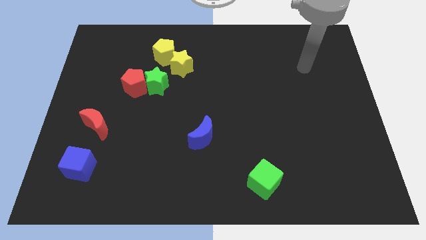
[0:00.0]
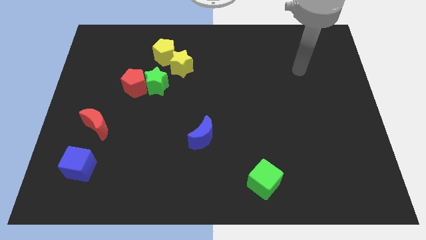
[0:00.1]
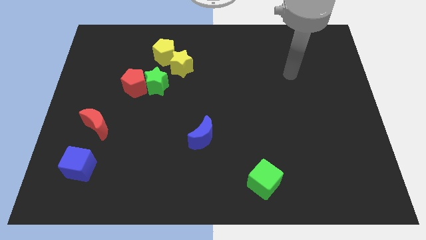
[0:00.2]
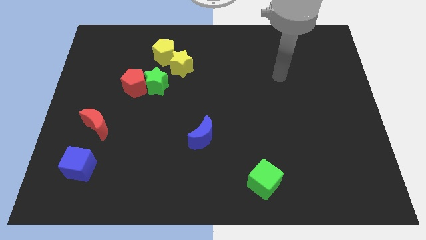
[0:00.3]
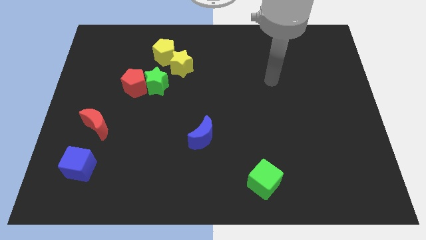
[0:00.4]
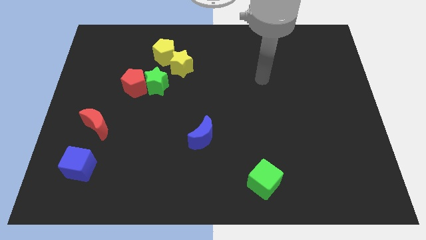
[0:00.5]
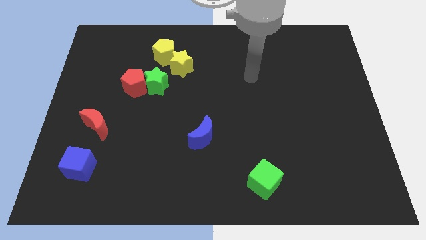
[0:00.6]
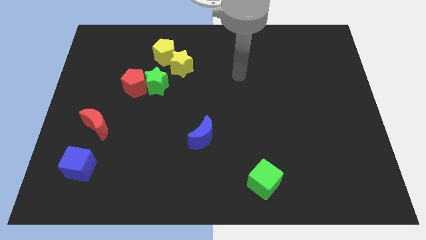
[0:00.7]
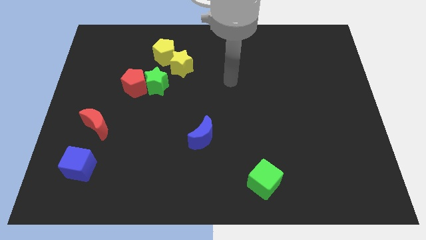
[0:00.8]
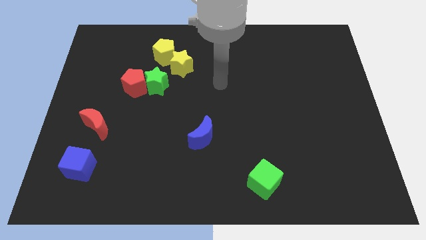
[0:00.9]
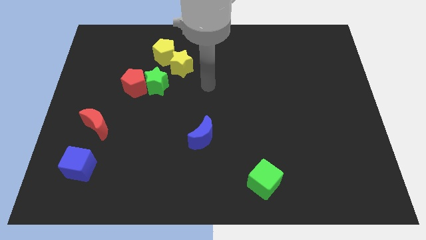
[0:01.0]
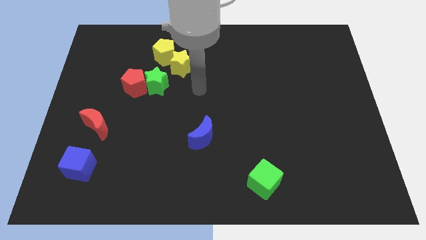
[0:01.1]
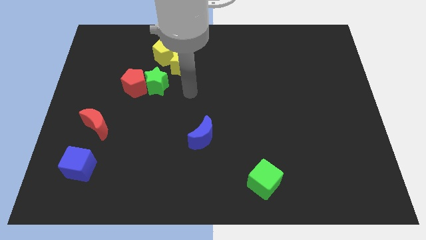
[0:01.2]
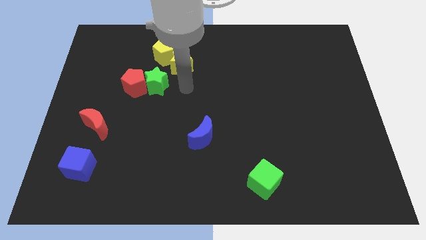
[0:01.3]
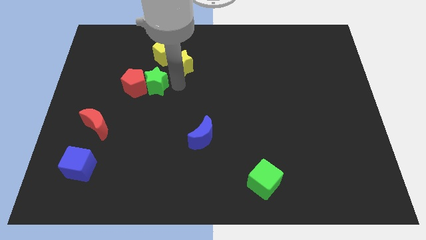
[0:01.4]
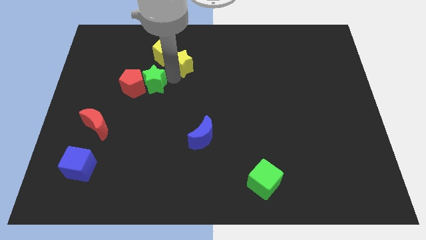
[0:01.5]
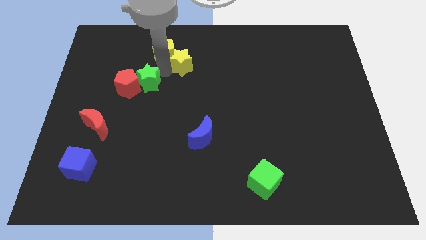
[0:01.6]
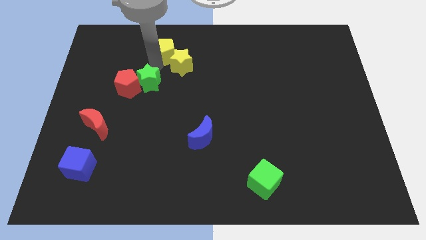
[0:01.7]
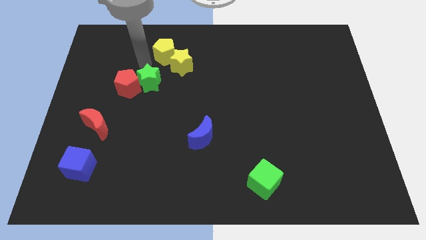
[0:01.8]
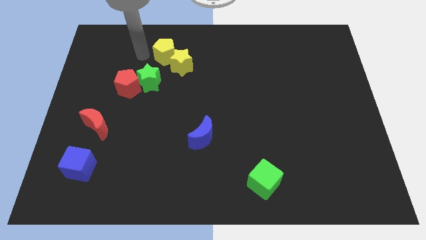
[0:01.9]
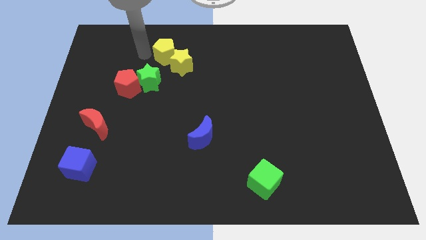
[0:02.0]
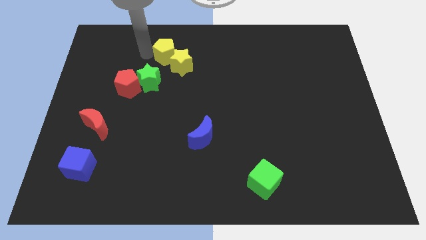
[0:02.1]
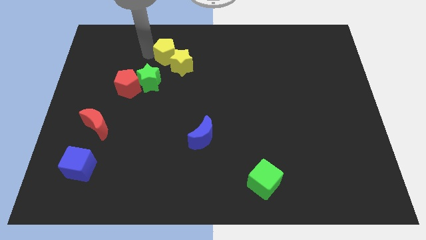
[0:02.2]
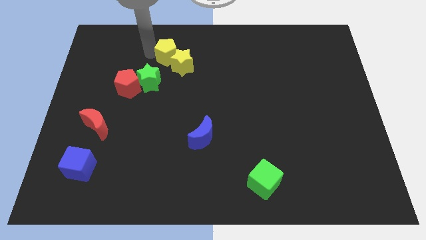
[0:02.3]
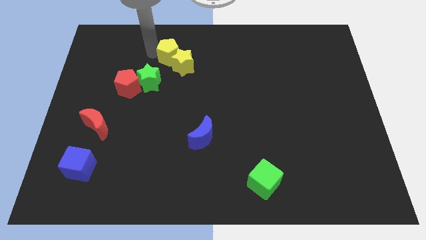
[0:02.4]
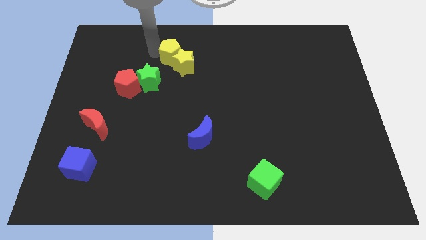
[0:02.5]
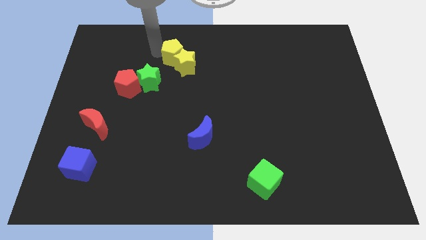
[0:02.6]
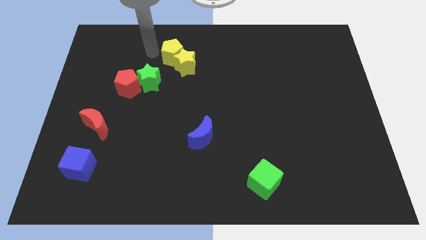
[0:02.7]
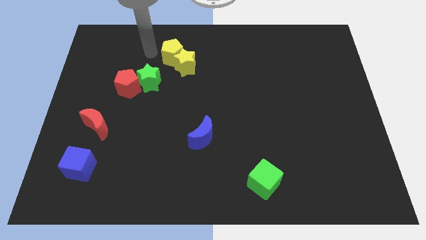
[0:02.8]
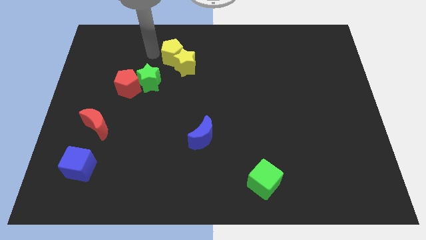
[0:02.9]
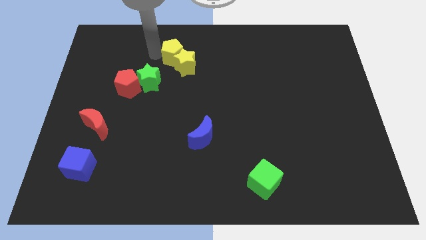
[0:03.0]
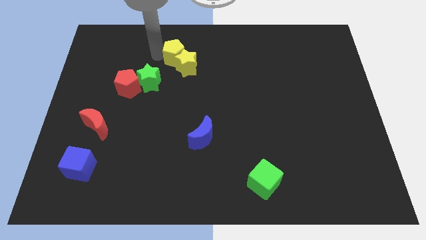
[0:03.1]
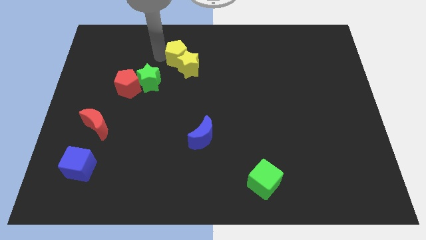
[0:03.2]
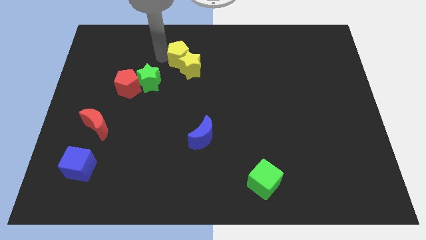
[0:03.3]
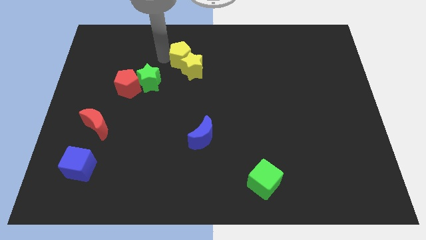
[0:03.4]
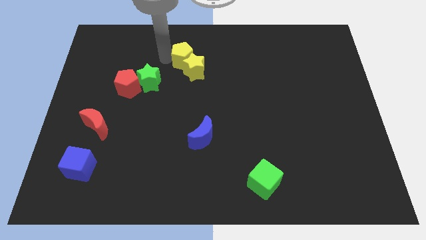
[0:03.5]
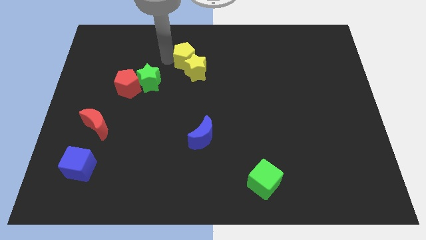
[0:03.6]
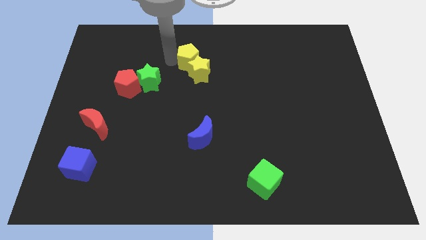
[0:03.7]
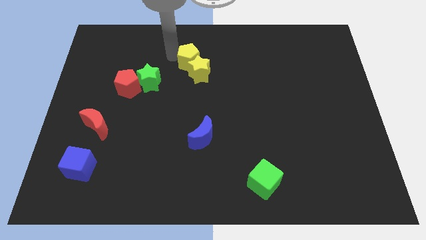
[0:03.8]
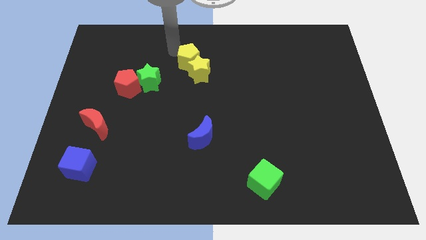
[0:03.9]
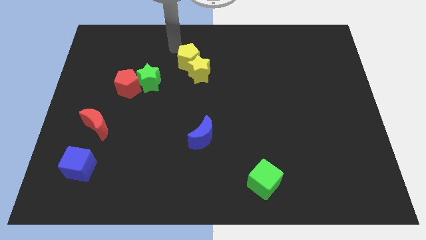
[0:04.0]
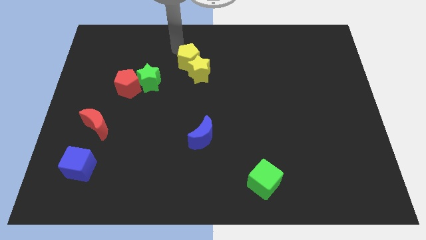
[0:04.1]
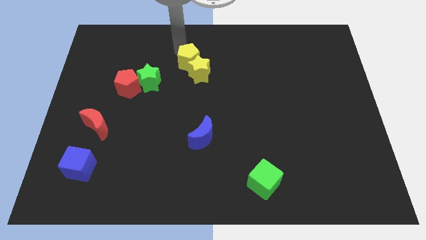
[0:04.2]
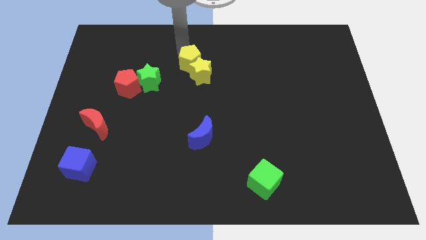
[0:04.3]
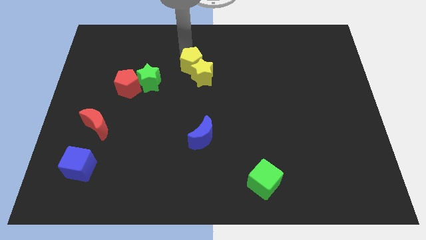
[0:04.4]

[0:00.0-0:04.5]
slightly slide the yellow pentagon downwards and right

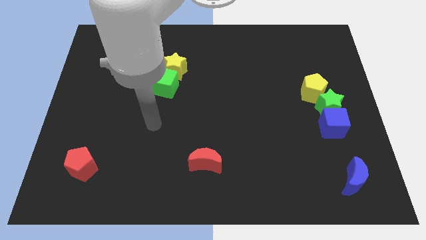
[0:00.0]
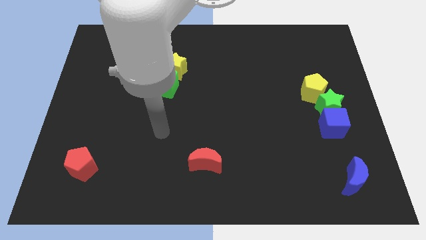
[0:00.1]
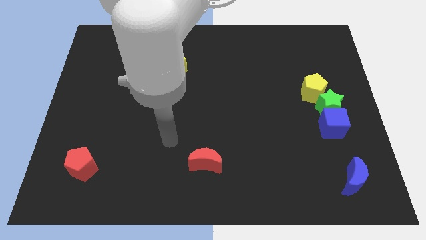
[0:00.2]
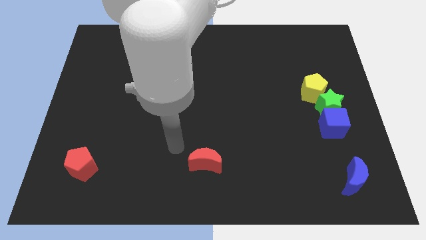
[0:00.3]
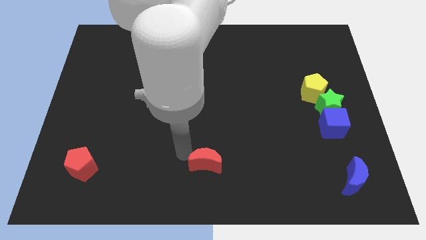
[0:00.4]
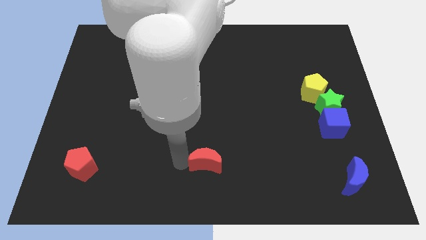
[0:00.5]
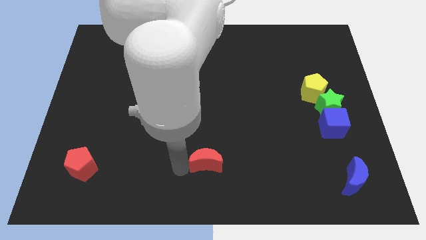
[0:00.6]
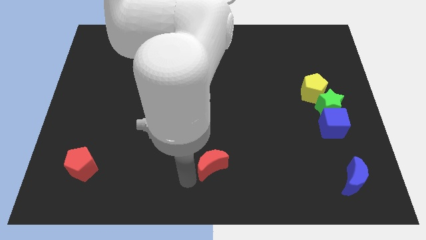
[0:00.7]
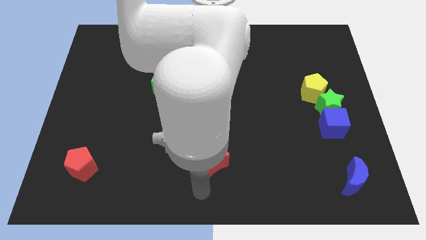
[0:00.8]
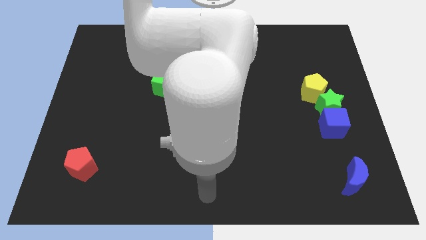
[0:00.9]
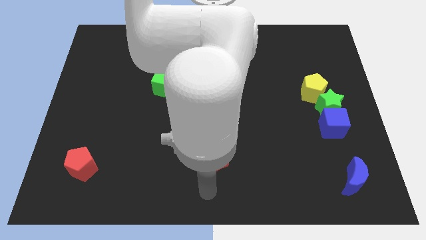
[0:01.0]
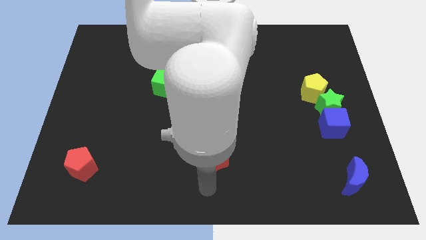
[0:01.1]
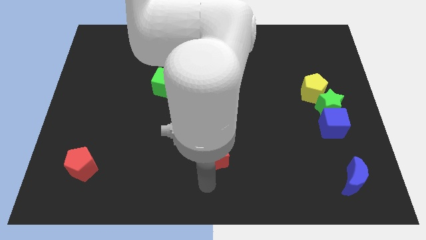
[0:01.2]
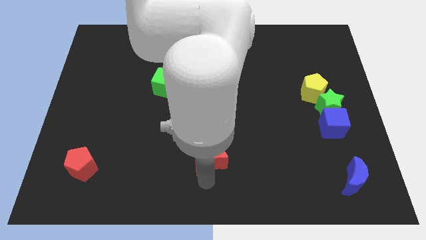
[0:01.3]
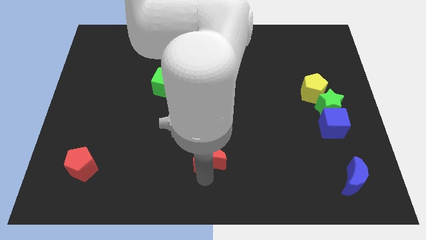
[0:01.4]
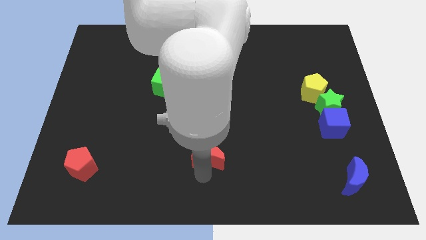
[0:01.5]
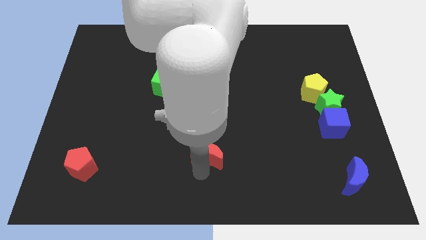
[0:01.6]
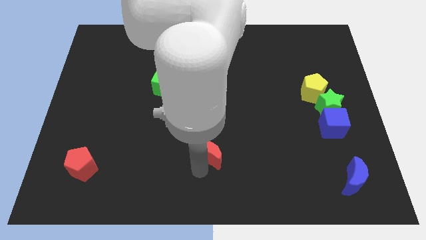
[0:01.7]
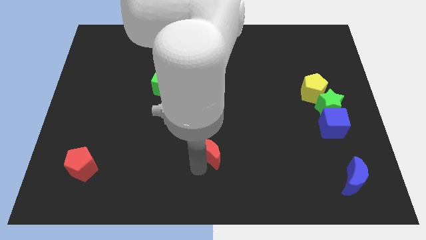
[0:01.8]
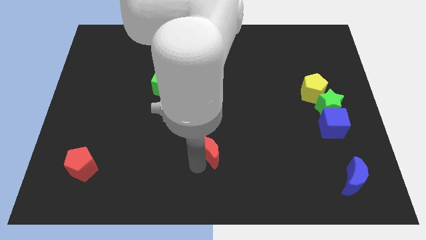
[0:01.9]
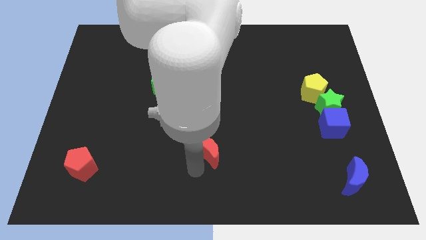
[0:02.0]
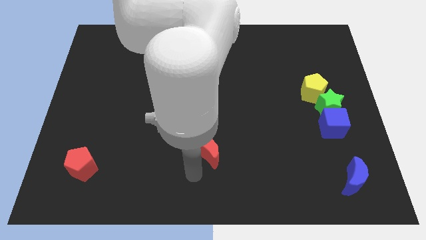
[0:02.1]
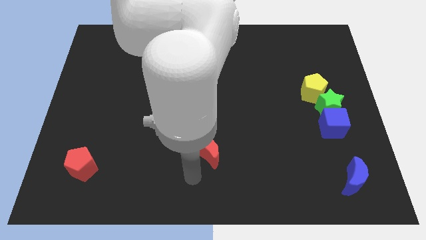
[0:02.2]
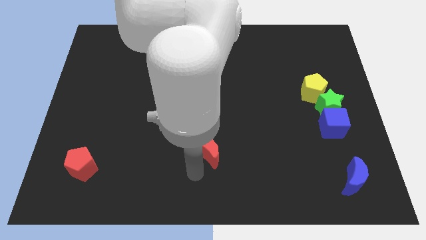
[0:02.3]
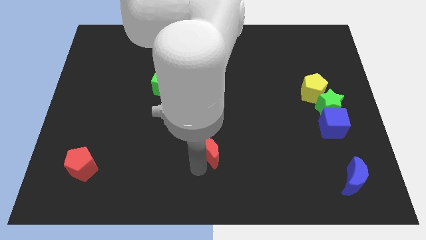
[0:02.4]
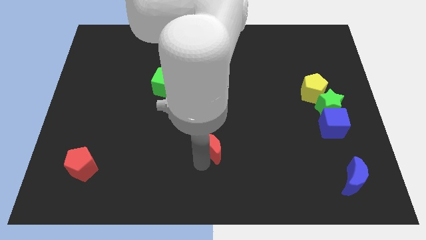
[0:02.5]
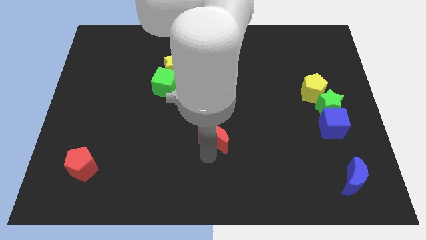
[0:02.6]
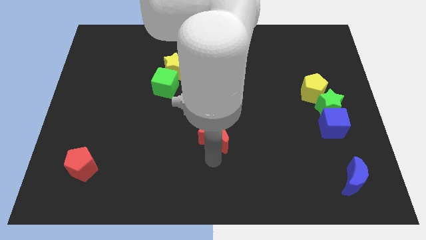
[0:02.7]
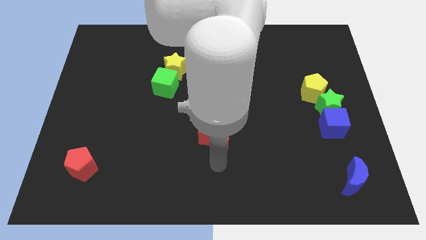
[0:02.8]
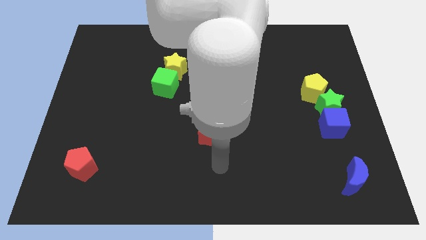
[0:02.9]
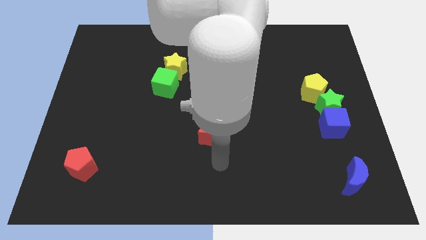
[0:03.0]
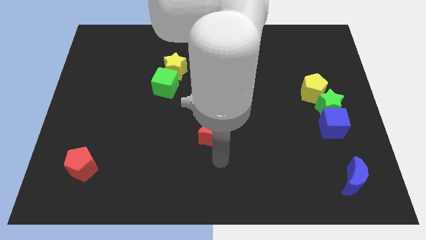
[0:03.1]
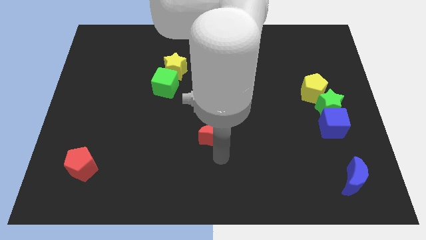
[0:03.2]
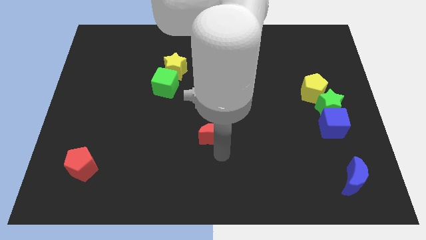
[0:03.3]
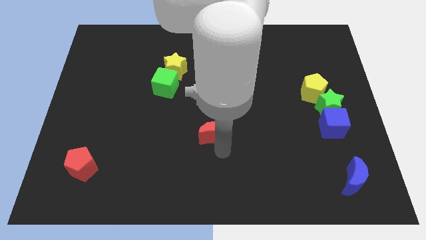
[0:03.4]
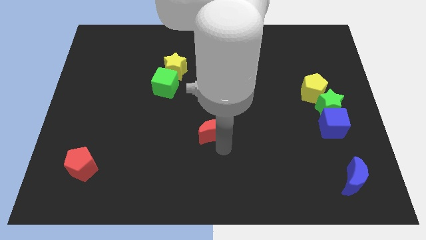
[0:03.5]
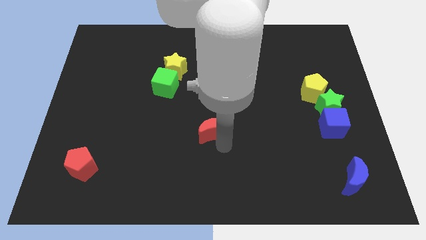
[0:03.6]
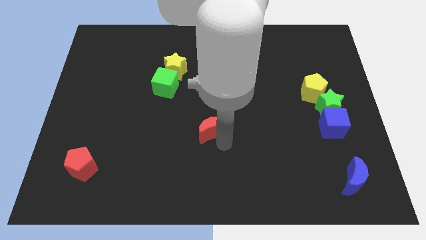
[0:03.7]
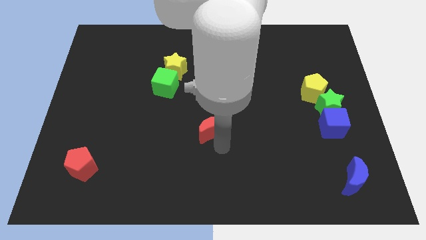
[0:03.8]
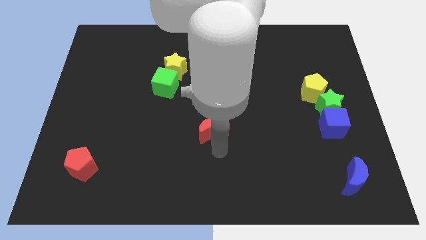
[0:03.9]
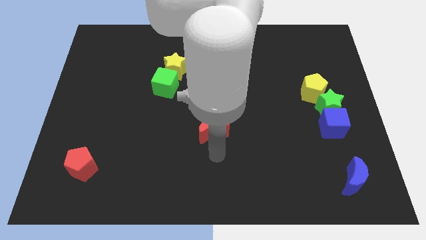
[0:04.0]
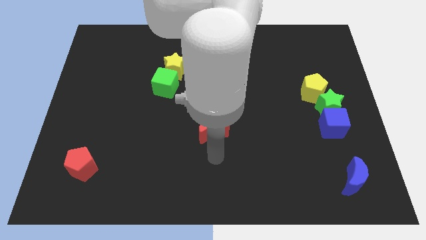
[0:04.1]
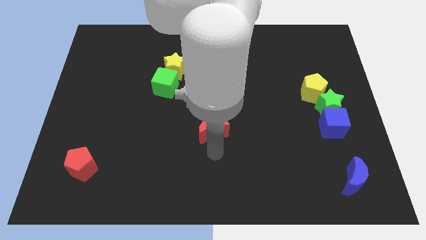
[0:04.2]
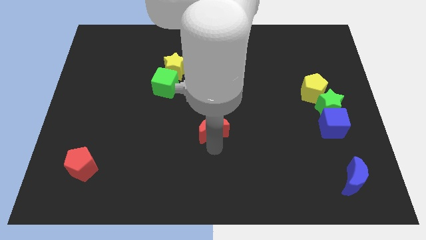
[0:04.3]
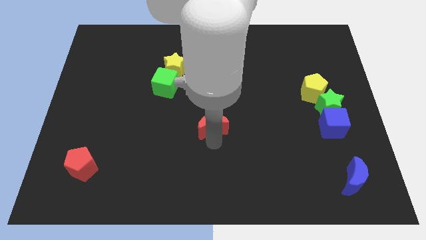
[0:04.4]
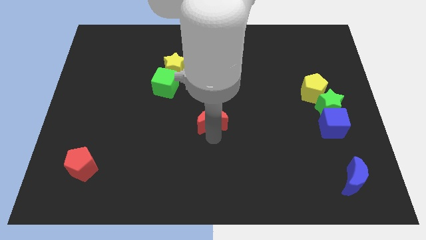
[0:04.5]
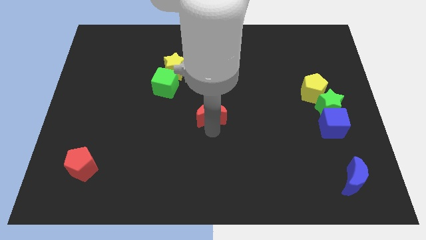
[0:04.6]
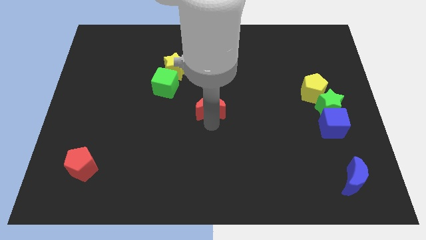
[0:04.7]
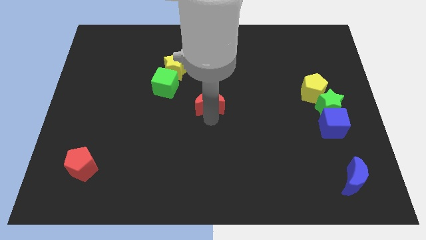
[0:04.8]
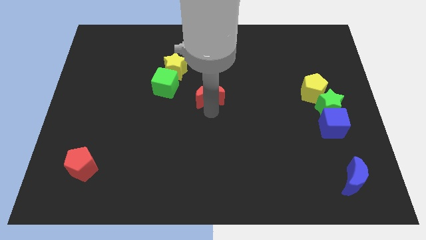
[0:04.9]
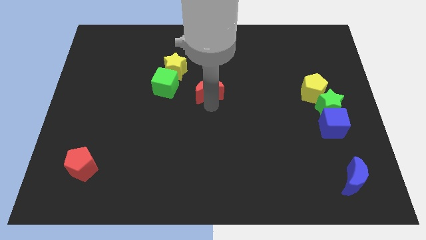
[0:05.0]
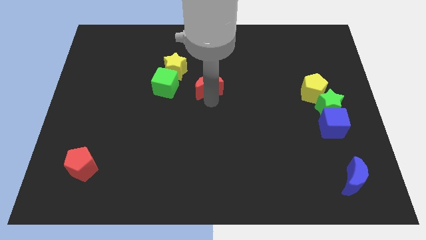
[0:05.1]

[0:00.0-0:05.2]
move the red moon upwards
